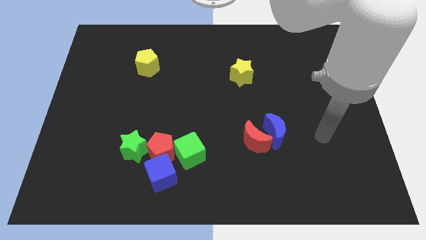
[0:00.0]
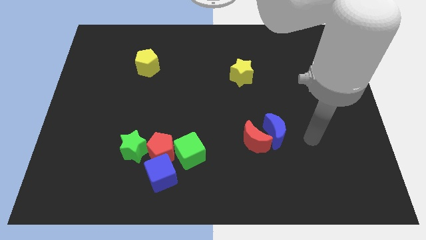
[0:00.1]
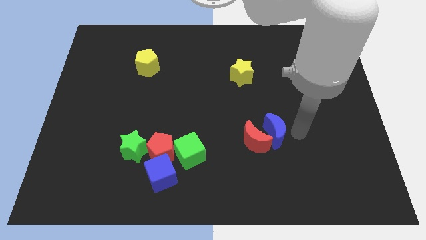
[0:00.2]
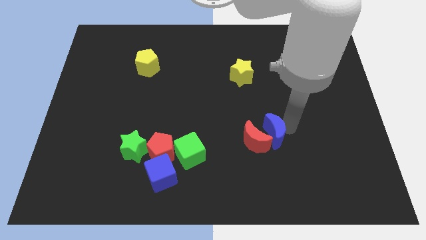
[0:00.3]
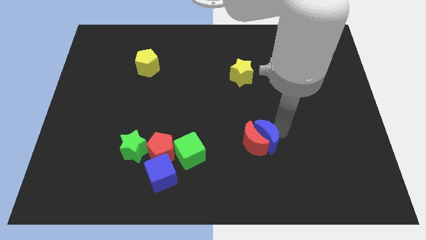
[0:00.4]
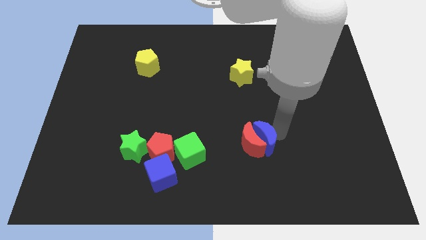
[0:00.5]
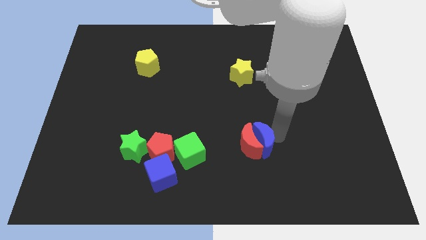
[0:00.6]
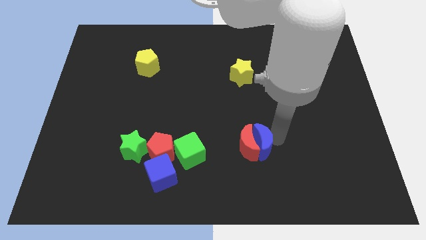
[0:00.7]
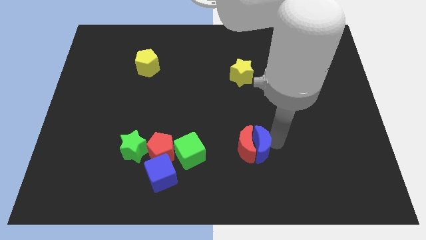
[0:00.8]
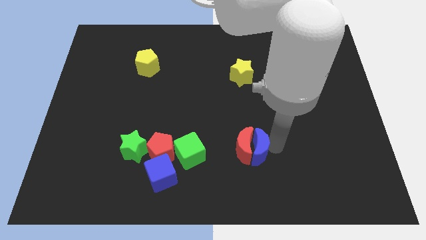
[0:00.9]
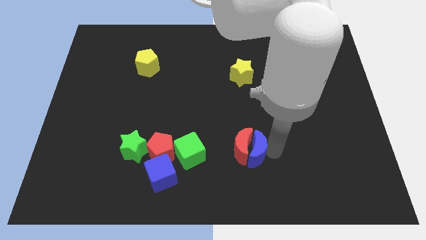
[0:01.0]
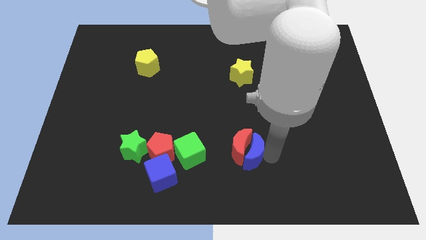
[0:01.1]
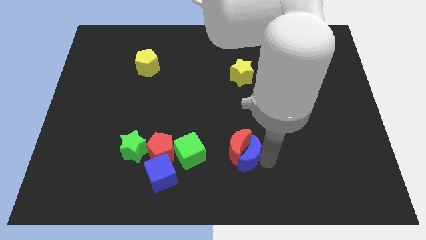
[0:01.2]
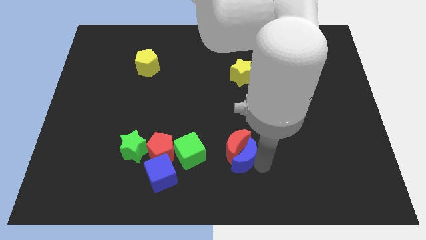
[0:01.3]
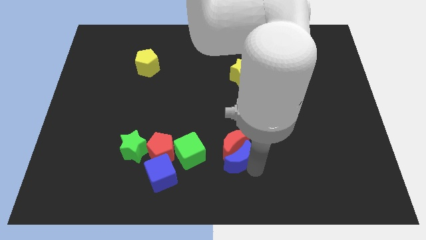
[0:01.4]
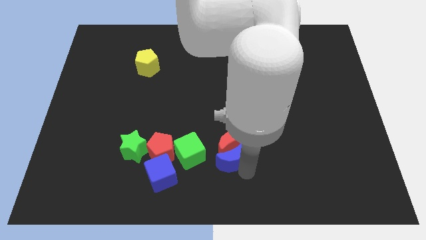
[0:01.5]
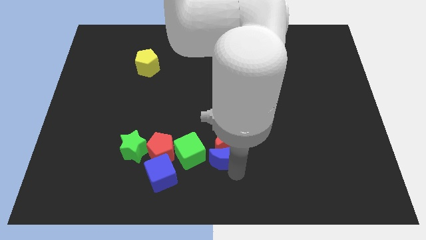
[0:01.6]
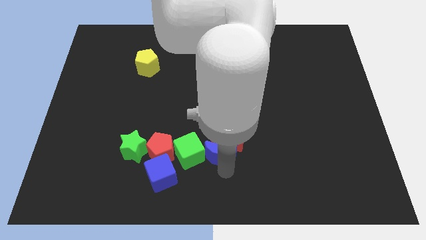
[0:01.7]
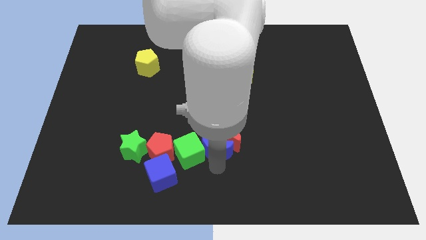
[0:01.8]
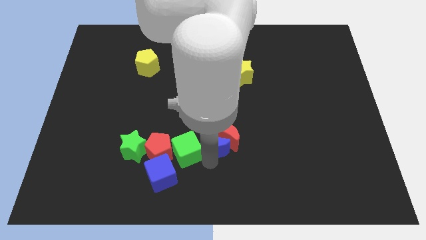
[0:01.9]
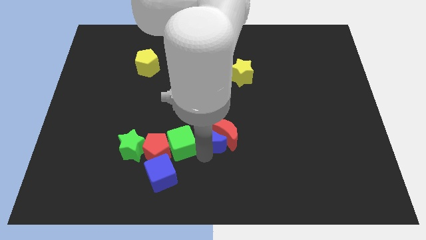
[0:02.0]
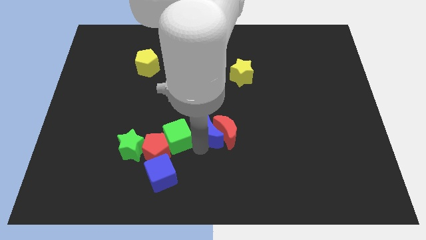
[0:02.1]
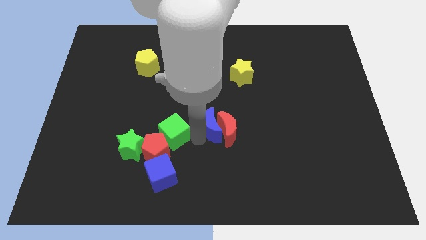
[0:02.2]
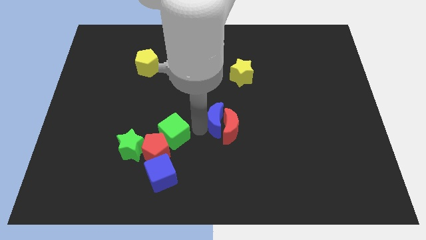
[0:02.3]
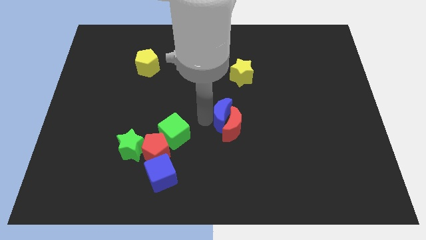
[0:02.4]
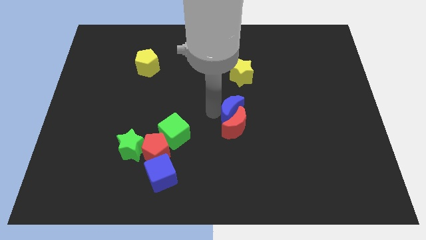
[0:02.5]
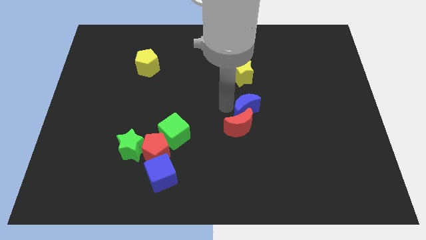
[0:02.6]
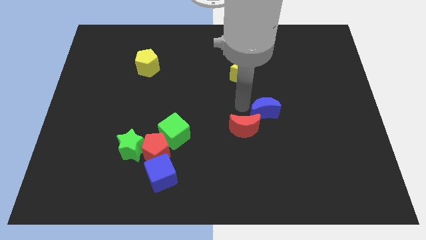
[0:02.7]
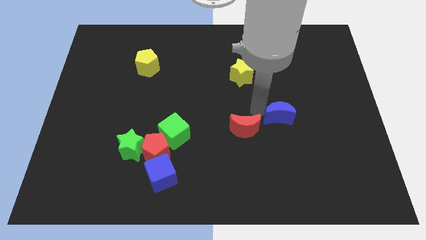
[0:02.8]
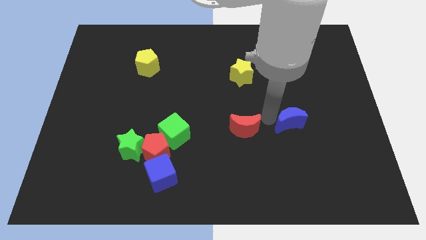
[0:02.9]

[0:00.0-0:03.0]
separate the red moon from the blue moon

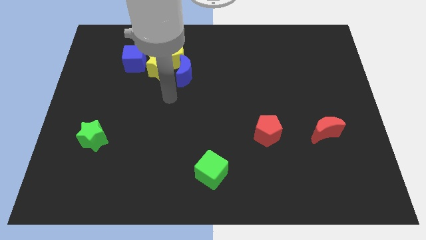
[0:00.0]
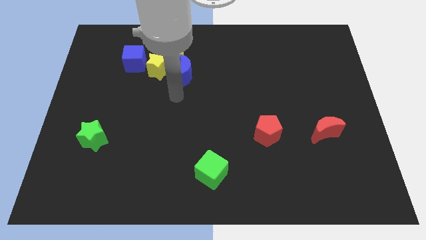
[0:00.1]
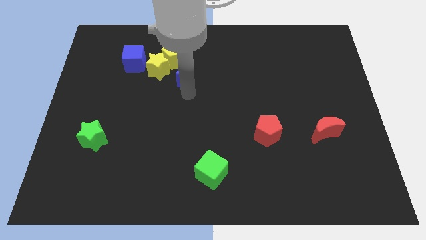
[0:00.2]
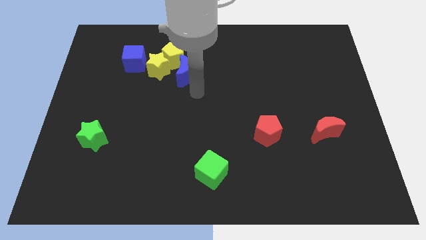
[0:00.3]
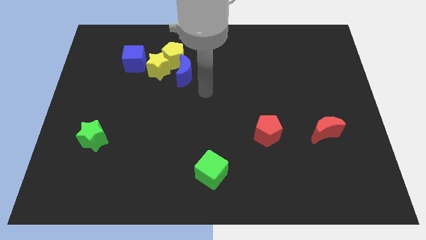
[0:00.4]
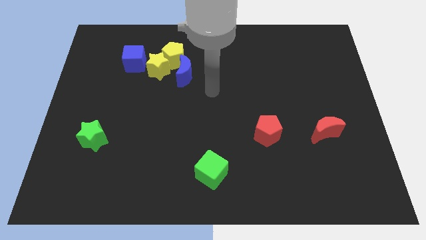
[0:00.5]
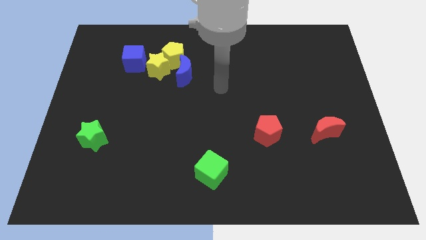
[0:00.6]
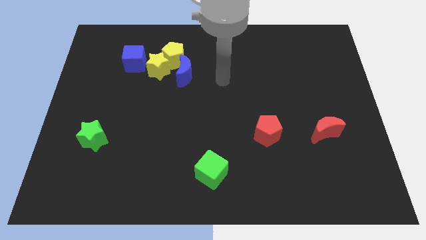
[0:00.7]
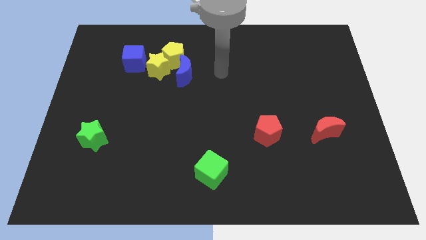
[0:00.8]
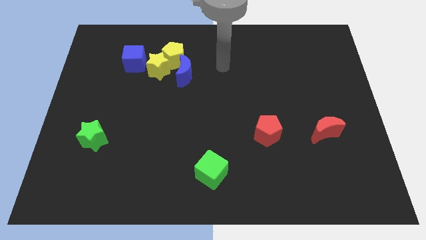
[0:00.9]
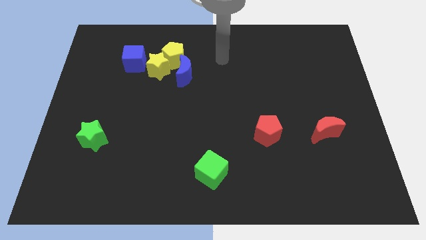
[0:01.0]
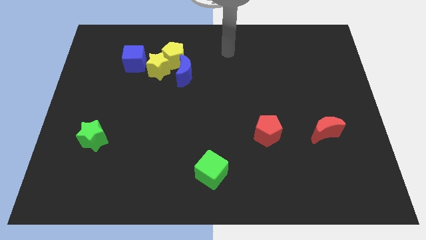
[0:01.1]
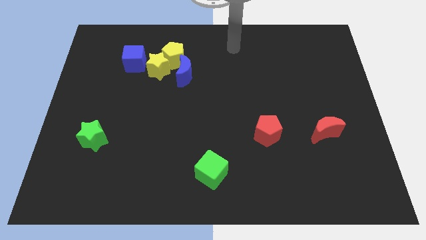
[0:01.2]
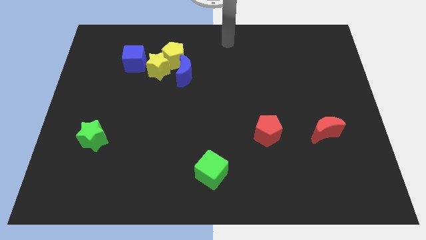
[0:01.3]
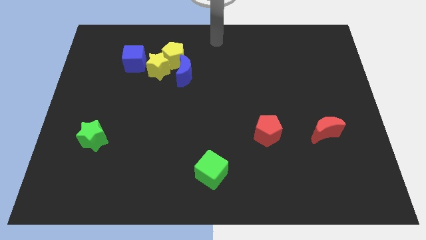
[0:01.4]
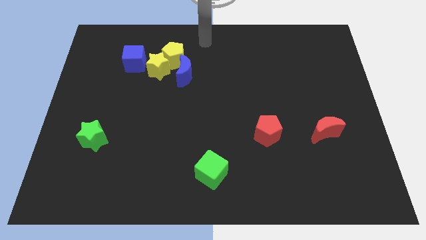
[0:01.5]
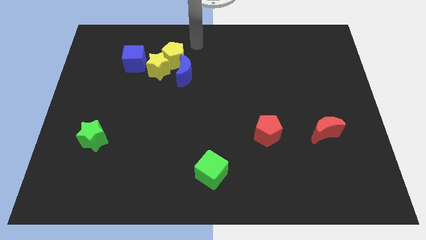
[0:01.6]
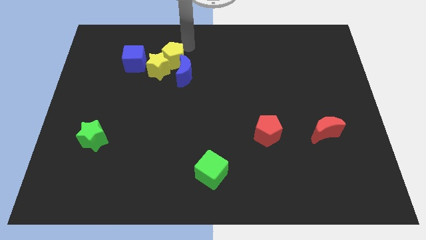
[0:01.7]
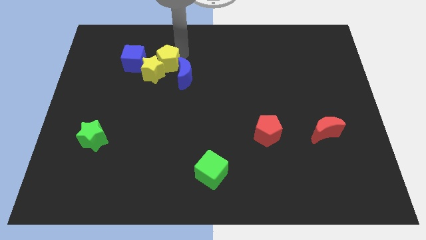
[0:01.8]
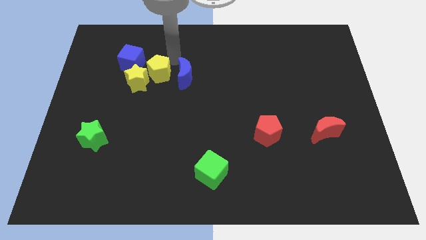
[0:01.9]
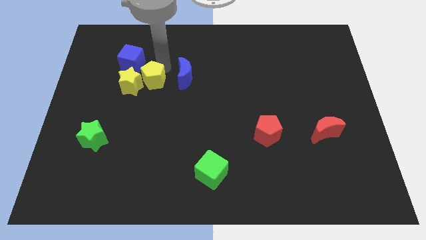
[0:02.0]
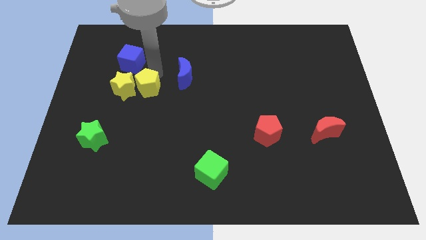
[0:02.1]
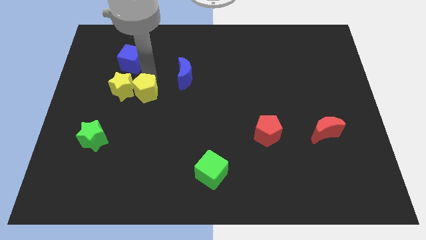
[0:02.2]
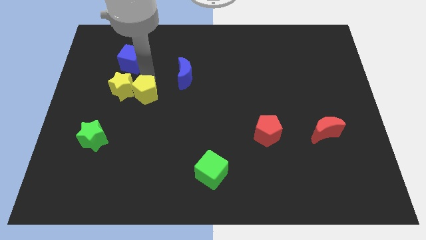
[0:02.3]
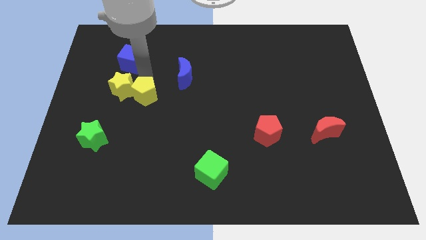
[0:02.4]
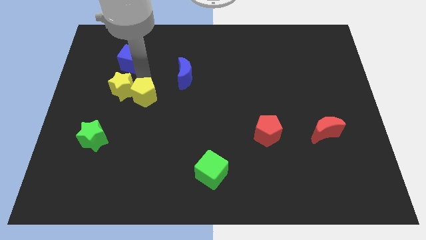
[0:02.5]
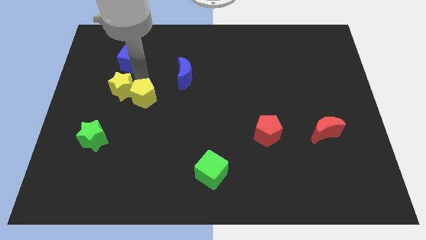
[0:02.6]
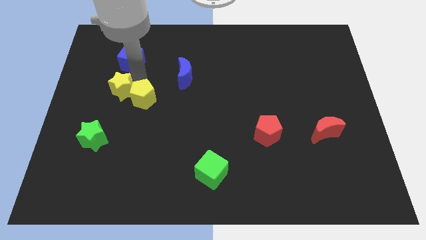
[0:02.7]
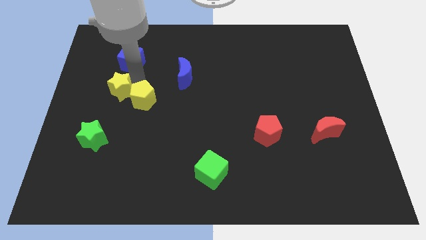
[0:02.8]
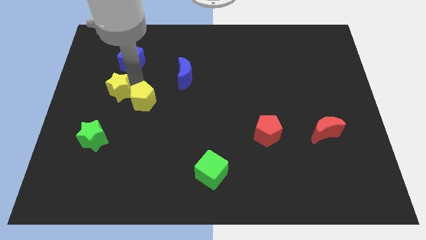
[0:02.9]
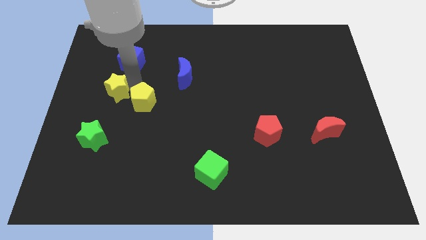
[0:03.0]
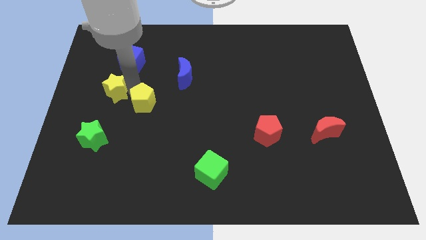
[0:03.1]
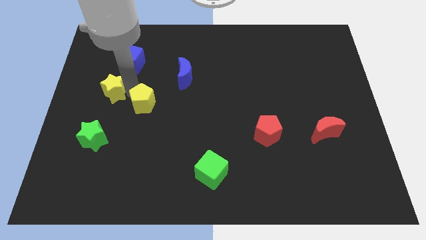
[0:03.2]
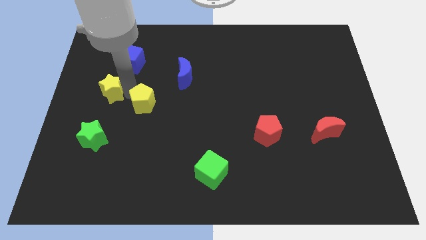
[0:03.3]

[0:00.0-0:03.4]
separate the yellow star from the yellow pentagon, blue cube, and blue moon
